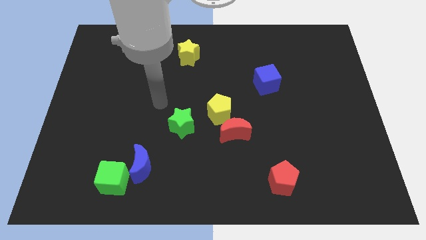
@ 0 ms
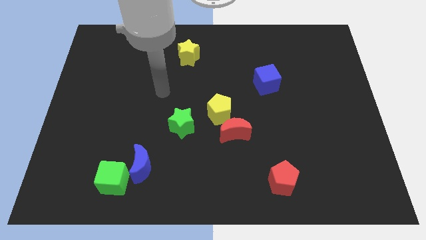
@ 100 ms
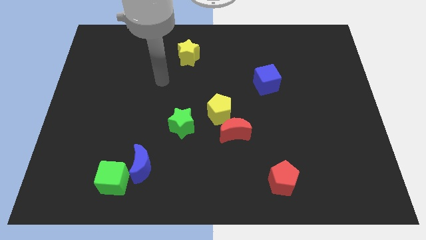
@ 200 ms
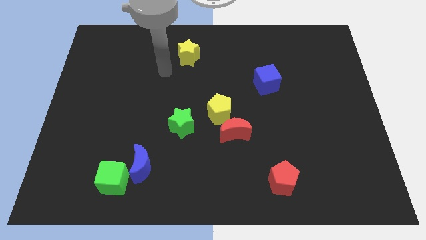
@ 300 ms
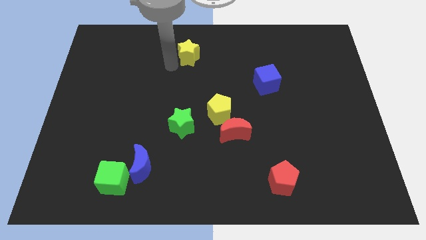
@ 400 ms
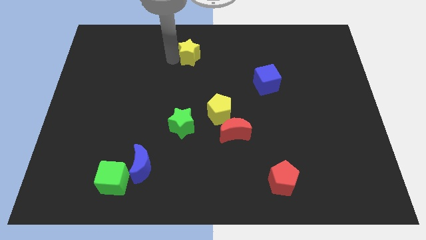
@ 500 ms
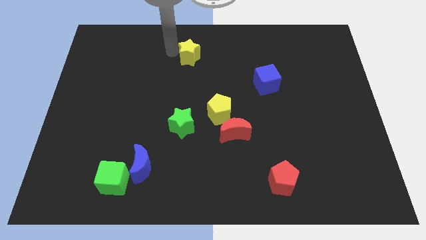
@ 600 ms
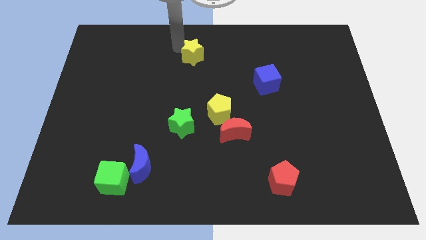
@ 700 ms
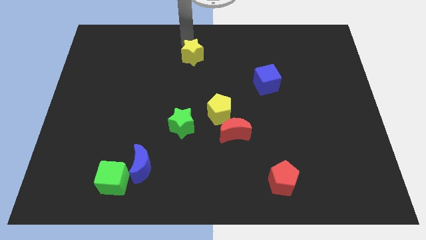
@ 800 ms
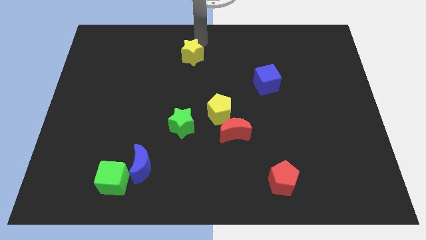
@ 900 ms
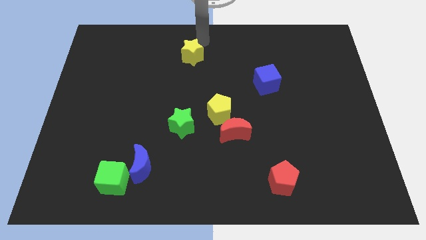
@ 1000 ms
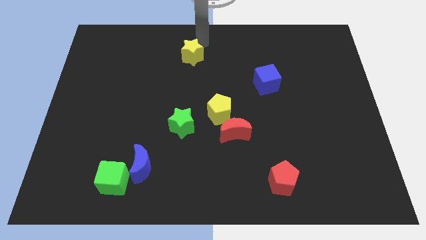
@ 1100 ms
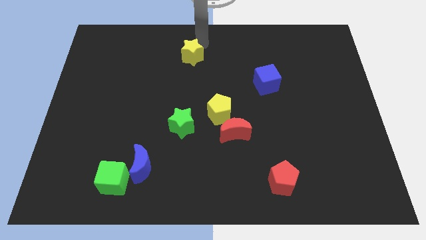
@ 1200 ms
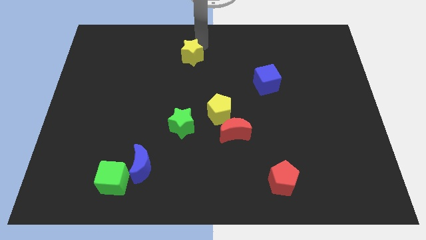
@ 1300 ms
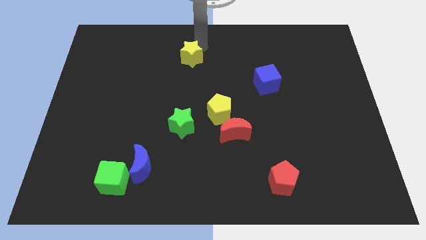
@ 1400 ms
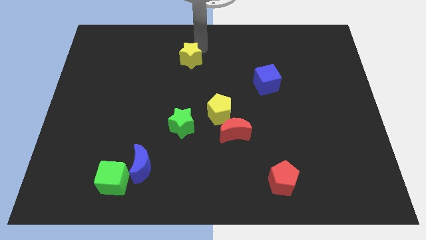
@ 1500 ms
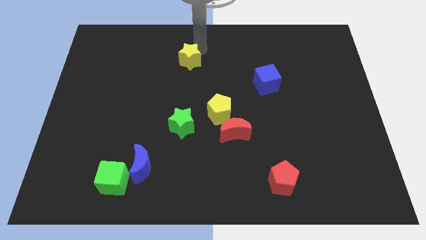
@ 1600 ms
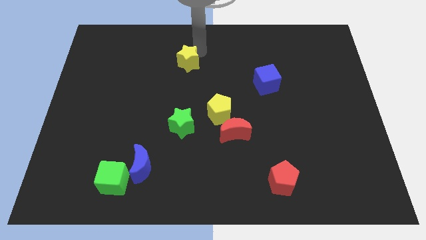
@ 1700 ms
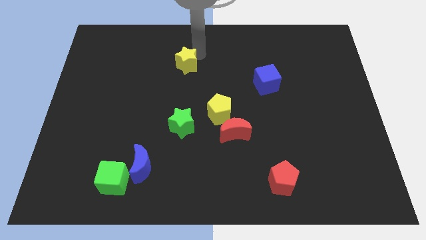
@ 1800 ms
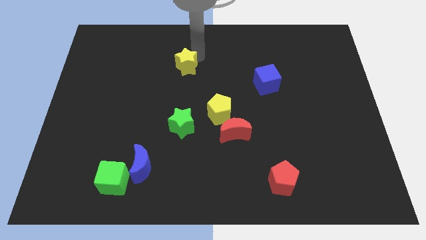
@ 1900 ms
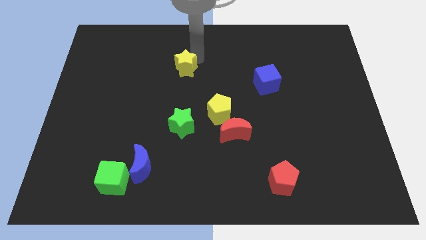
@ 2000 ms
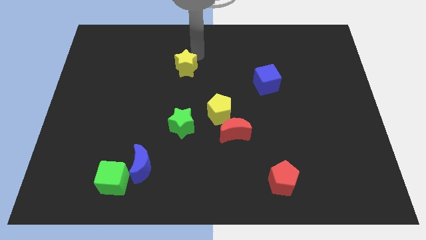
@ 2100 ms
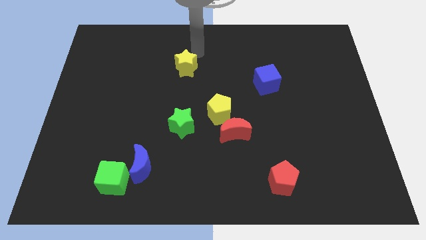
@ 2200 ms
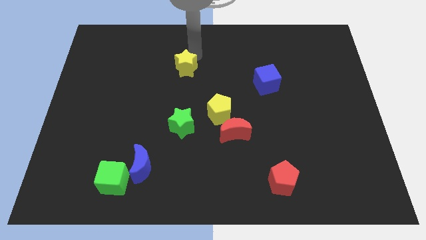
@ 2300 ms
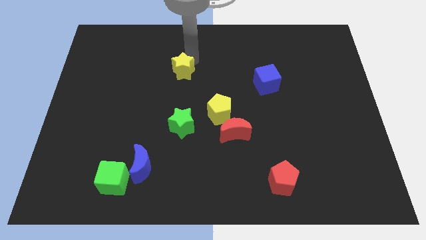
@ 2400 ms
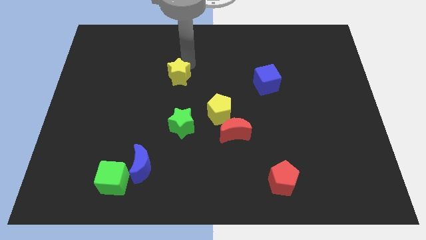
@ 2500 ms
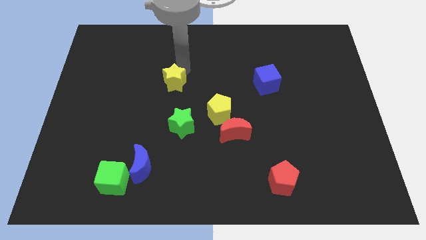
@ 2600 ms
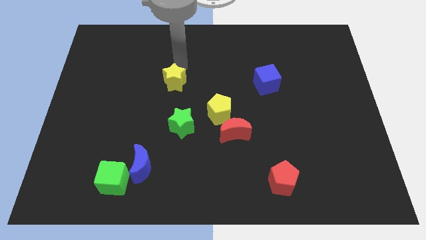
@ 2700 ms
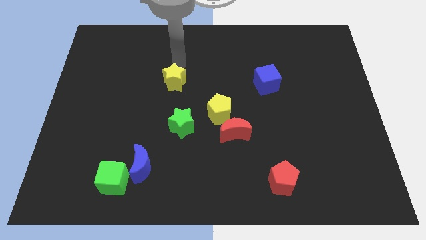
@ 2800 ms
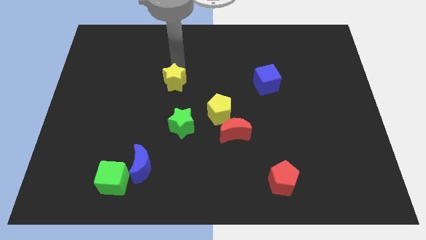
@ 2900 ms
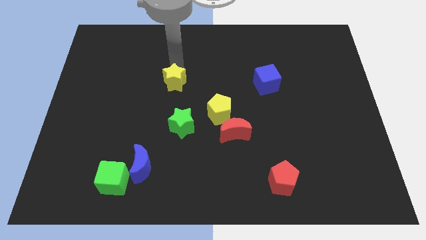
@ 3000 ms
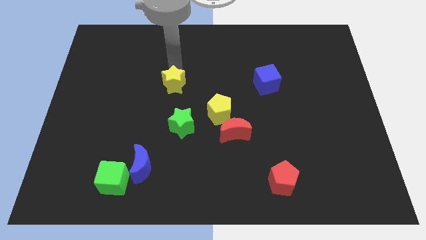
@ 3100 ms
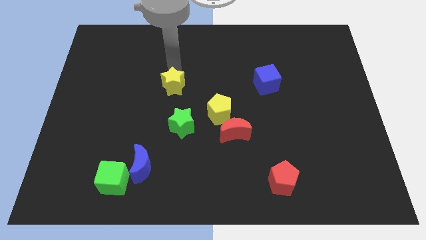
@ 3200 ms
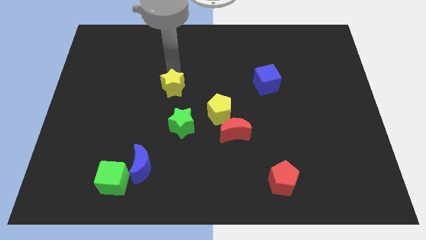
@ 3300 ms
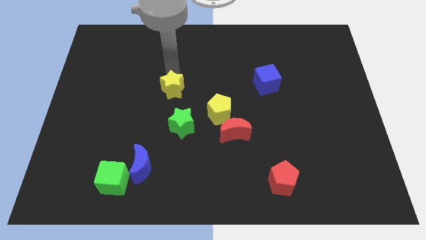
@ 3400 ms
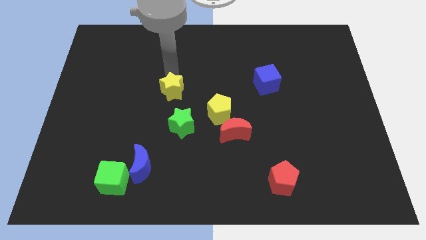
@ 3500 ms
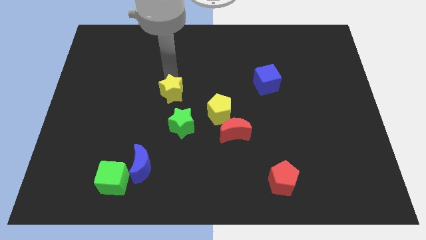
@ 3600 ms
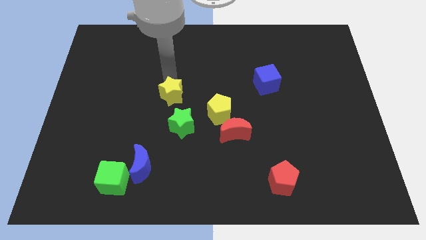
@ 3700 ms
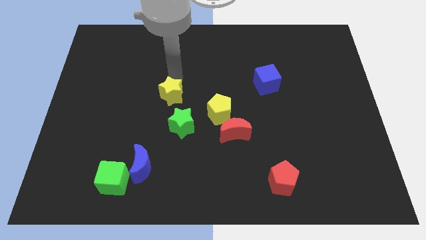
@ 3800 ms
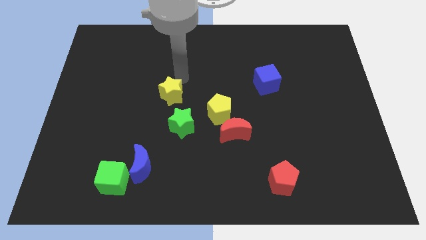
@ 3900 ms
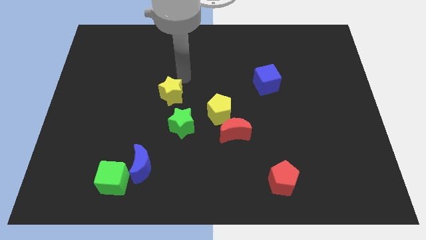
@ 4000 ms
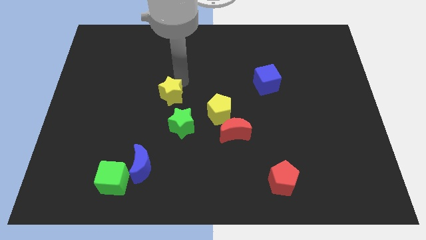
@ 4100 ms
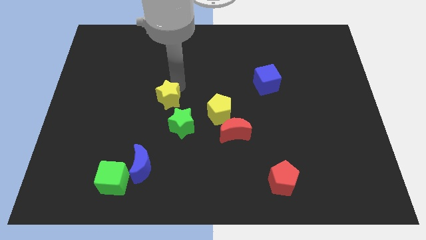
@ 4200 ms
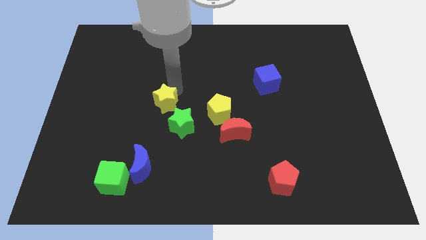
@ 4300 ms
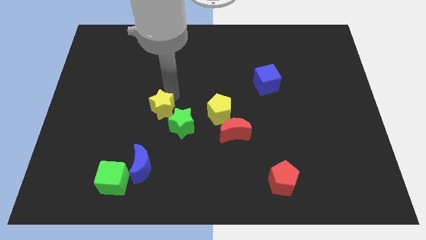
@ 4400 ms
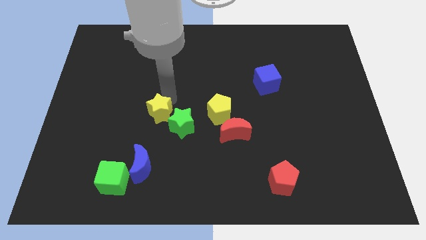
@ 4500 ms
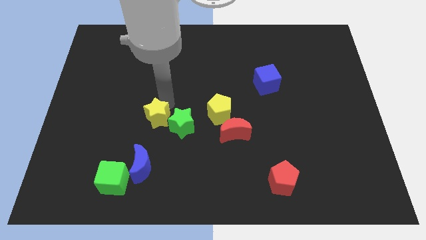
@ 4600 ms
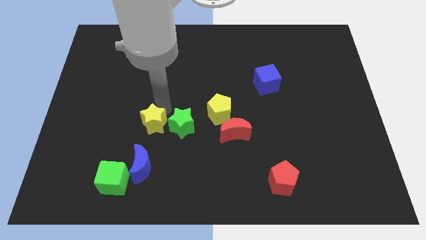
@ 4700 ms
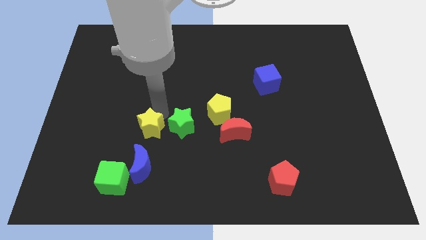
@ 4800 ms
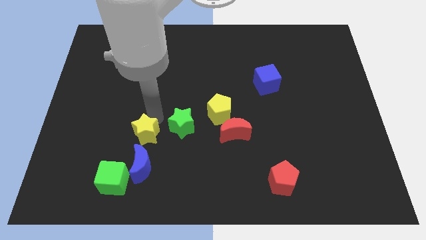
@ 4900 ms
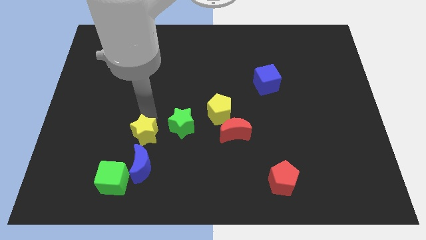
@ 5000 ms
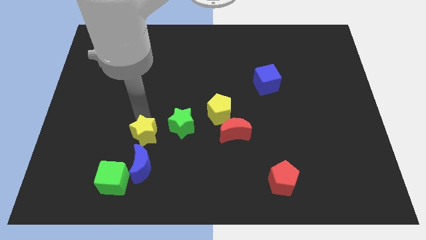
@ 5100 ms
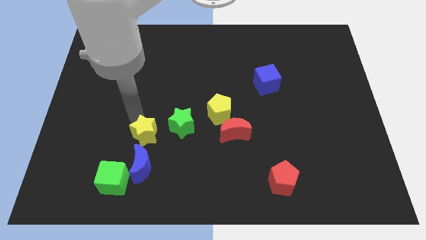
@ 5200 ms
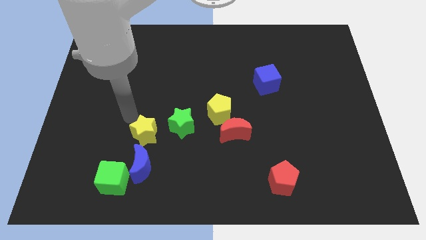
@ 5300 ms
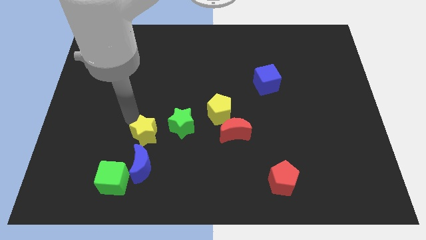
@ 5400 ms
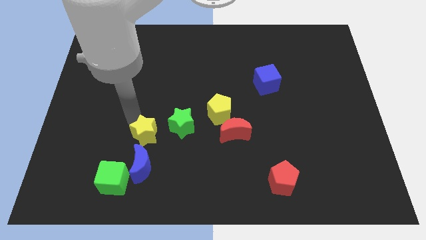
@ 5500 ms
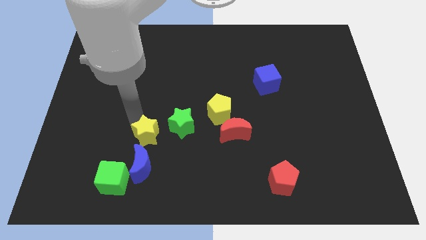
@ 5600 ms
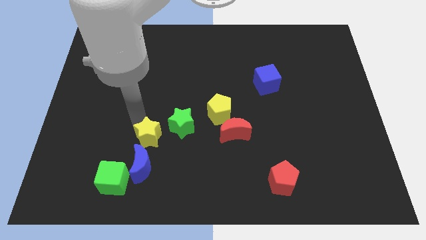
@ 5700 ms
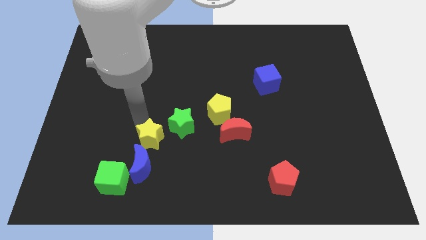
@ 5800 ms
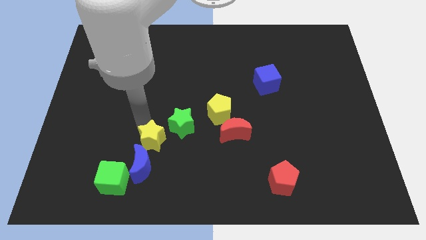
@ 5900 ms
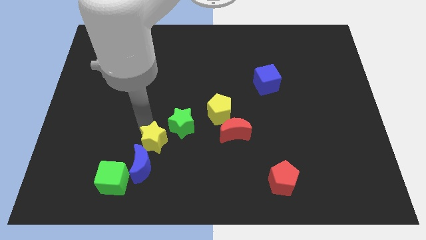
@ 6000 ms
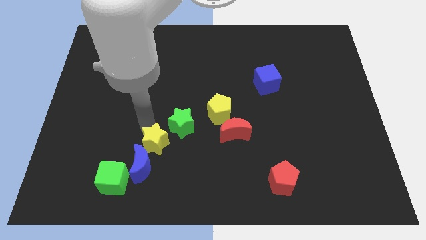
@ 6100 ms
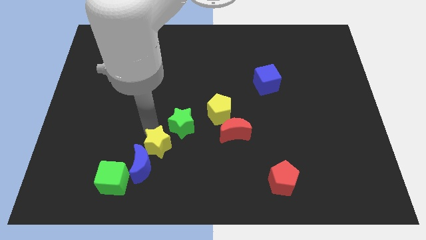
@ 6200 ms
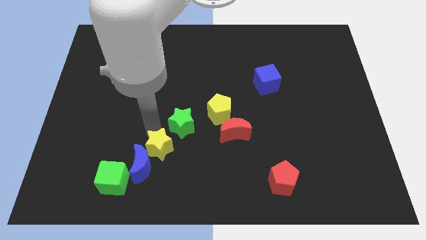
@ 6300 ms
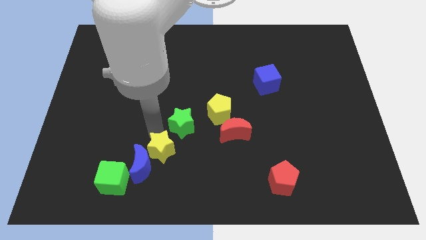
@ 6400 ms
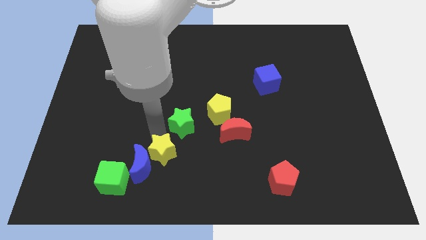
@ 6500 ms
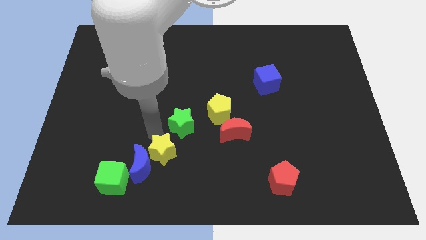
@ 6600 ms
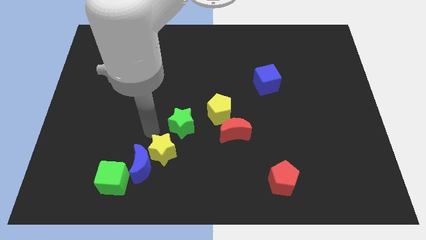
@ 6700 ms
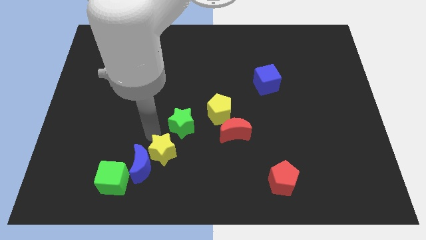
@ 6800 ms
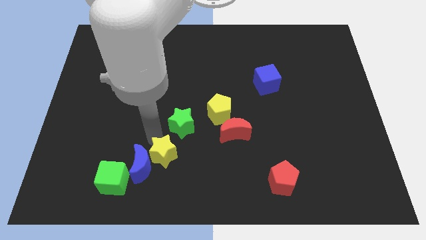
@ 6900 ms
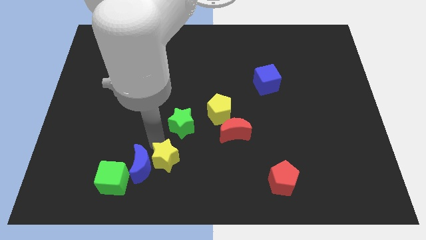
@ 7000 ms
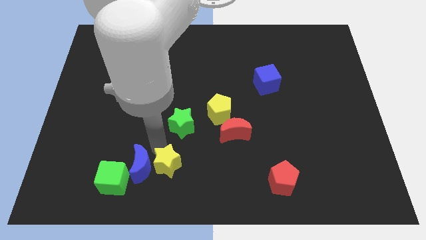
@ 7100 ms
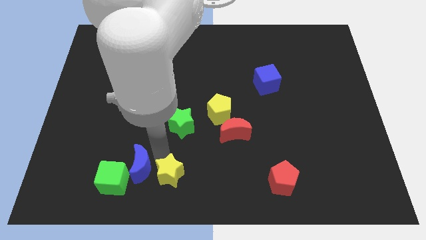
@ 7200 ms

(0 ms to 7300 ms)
put the yellow star to the bottom side
